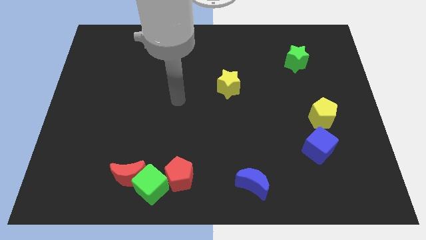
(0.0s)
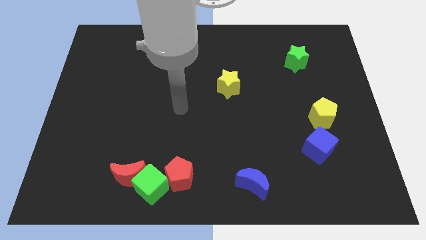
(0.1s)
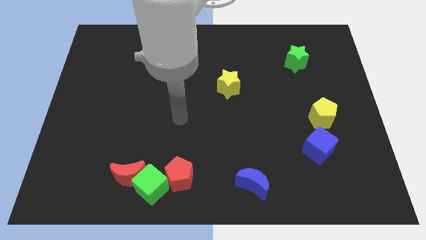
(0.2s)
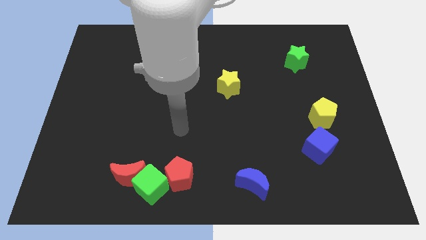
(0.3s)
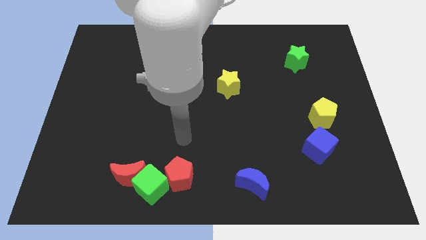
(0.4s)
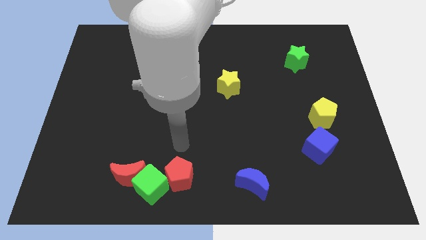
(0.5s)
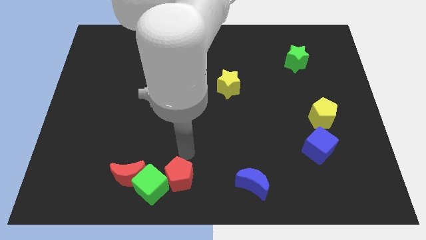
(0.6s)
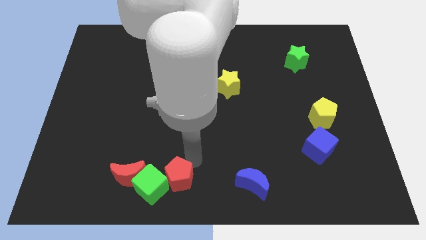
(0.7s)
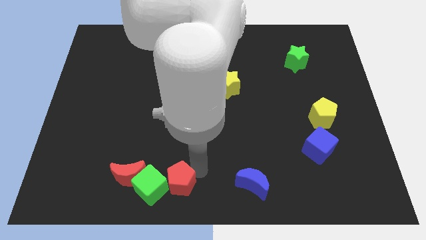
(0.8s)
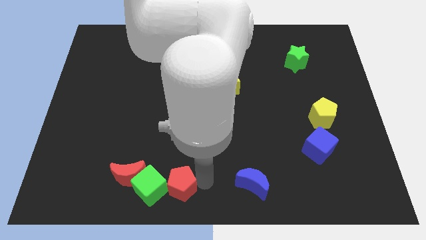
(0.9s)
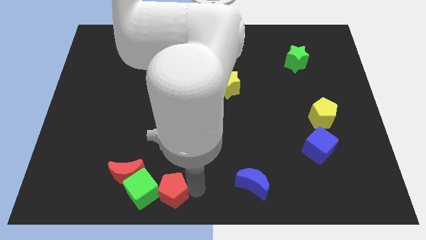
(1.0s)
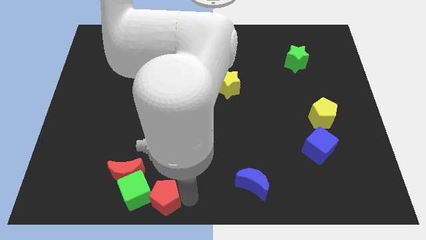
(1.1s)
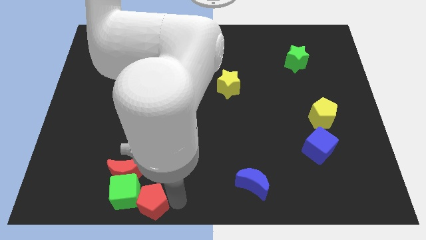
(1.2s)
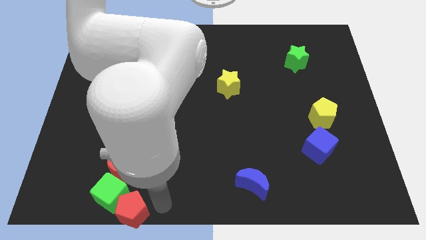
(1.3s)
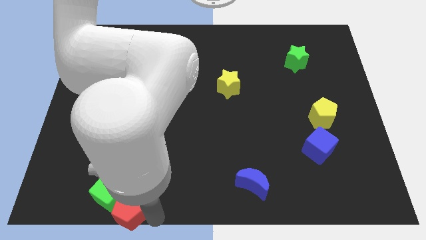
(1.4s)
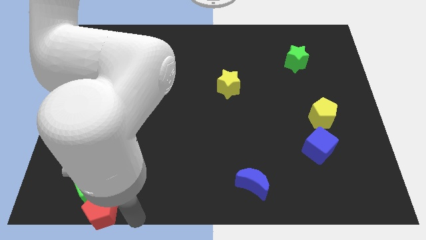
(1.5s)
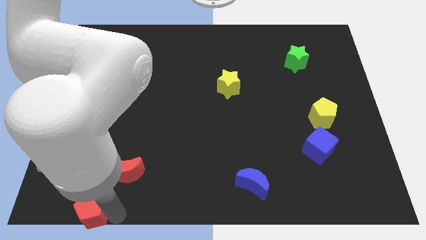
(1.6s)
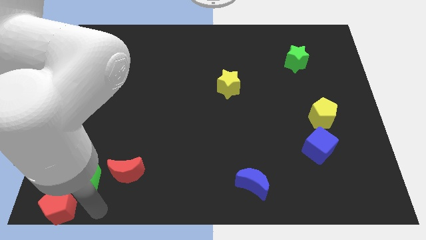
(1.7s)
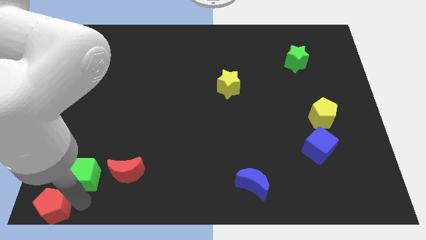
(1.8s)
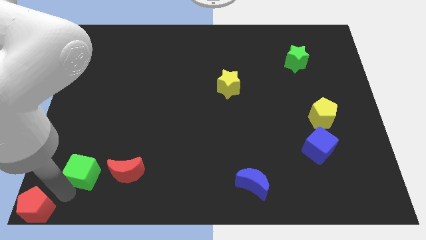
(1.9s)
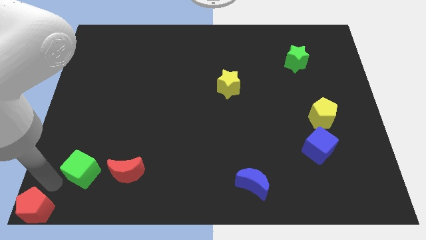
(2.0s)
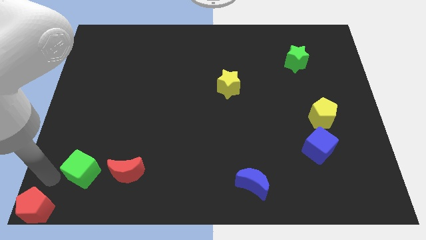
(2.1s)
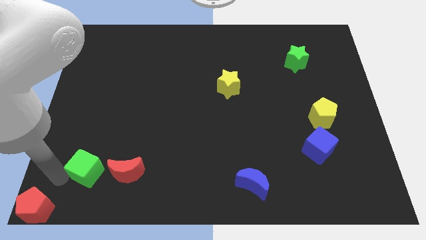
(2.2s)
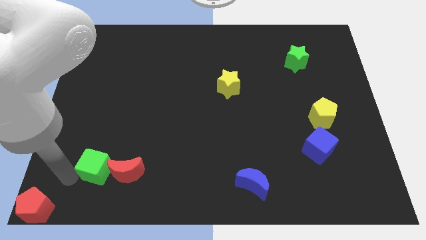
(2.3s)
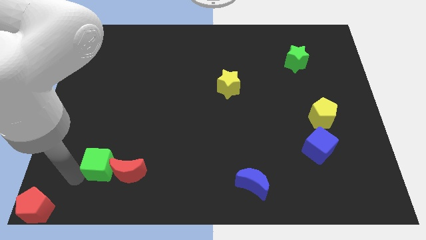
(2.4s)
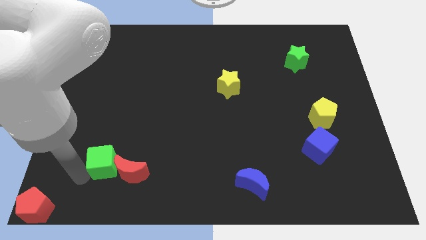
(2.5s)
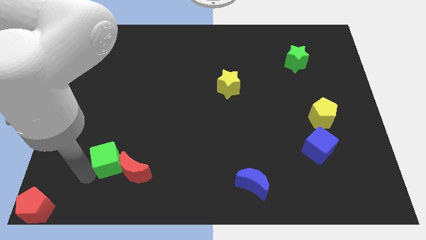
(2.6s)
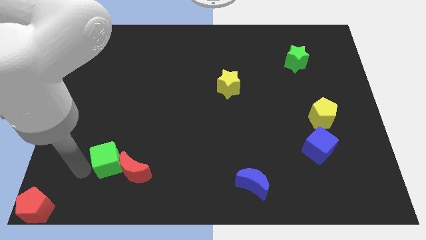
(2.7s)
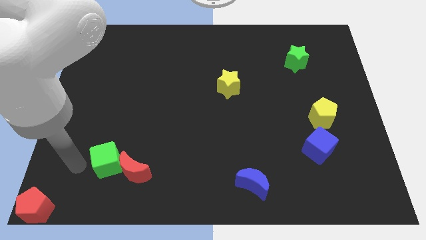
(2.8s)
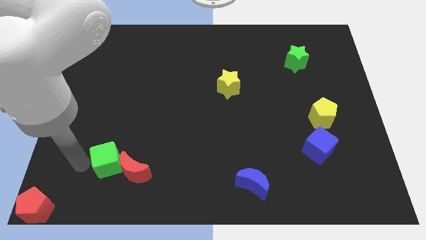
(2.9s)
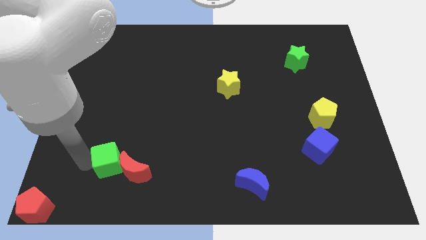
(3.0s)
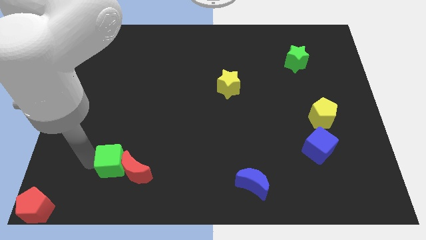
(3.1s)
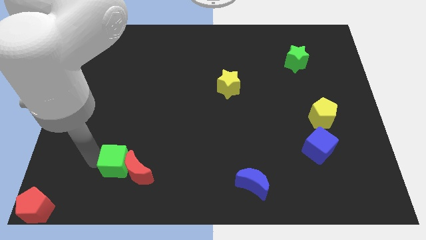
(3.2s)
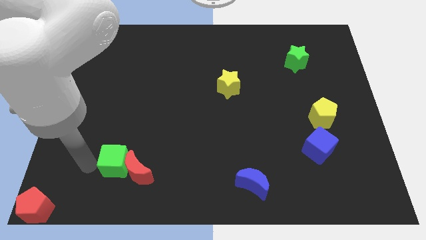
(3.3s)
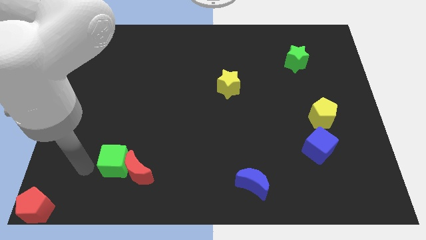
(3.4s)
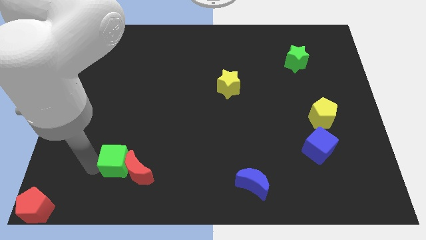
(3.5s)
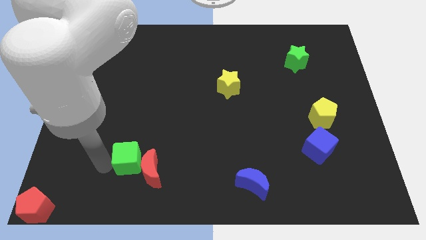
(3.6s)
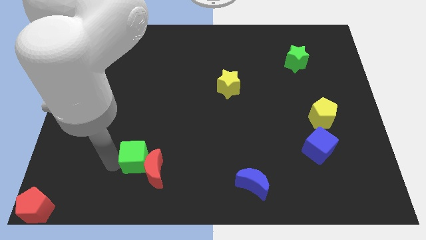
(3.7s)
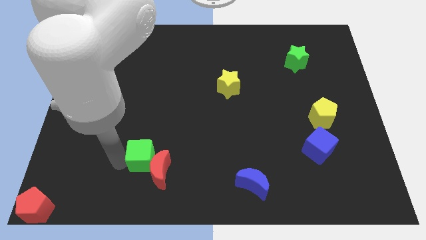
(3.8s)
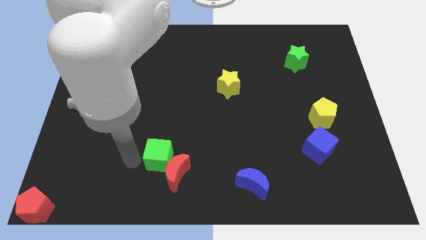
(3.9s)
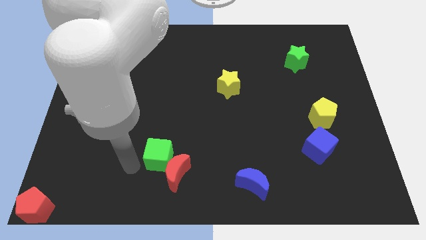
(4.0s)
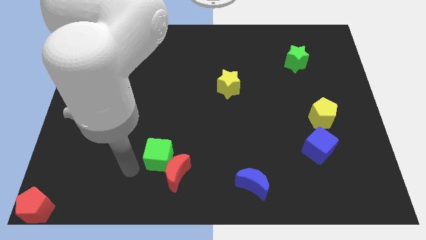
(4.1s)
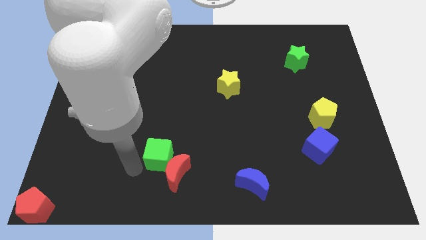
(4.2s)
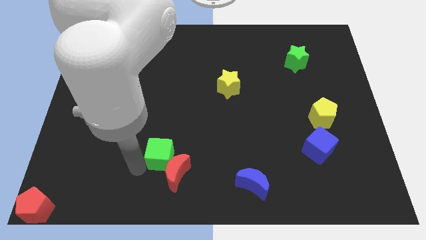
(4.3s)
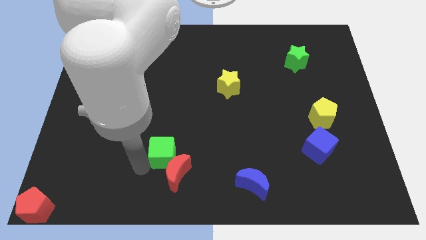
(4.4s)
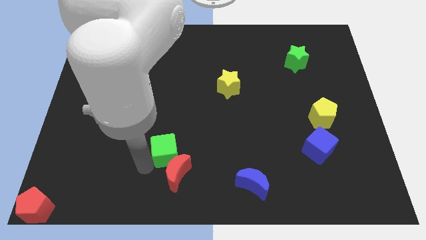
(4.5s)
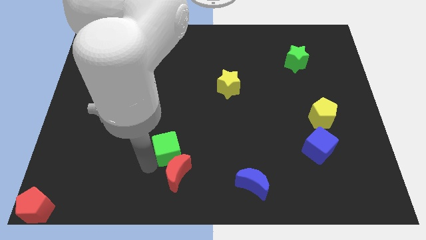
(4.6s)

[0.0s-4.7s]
slightly slide the green cube upwards and right

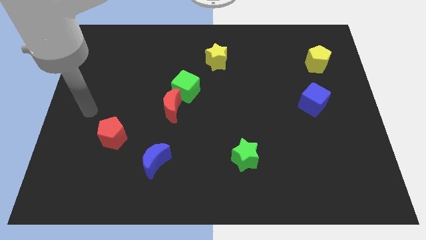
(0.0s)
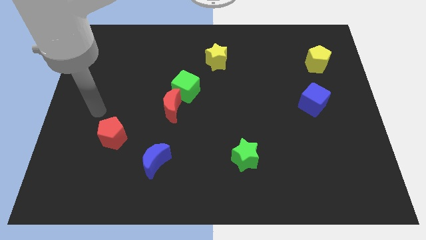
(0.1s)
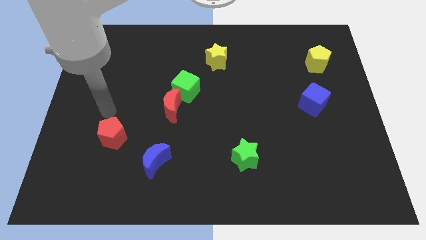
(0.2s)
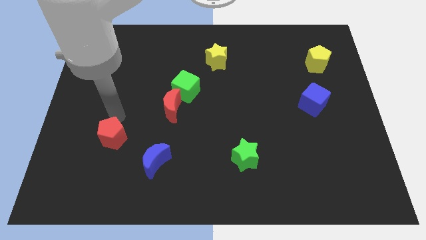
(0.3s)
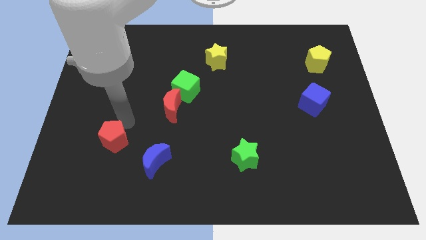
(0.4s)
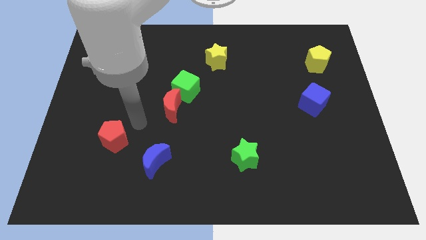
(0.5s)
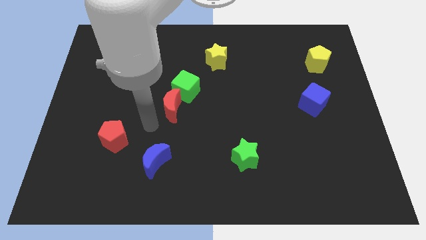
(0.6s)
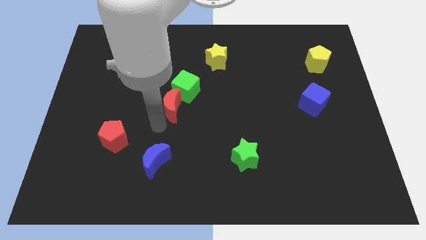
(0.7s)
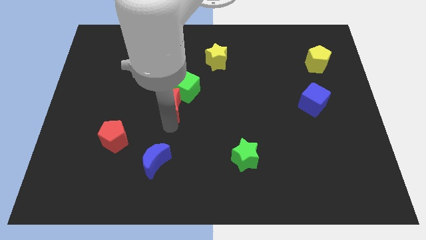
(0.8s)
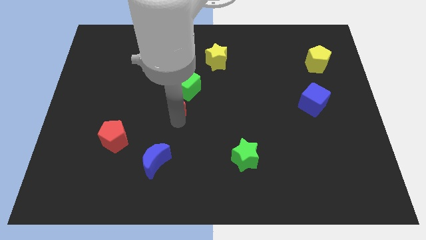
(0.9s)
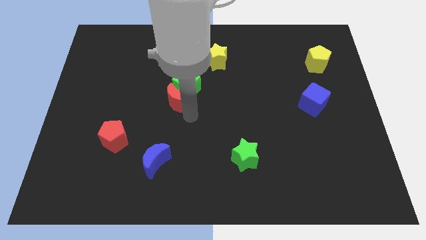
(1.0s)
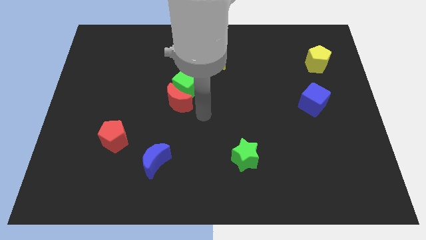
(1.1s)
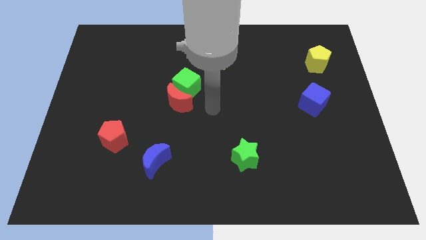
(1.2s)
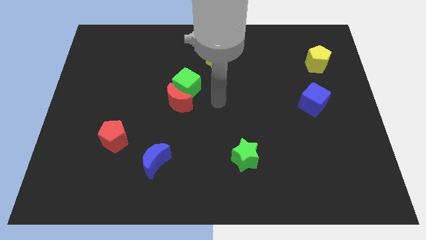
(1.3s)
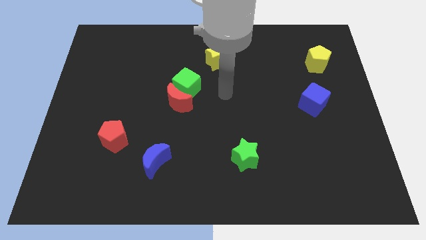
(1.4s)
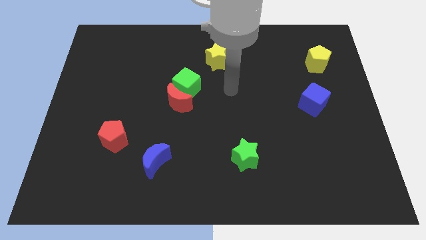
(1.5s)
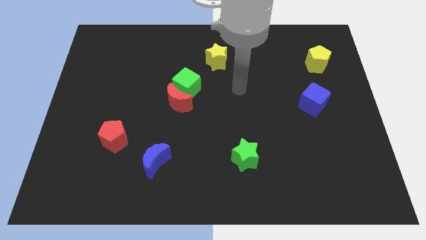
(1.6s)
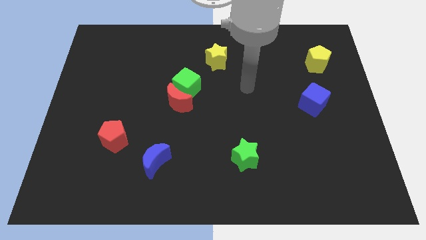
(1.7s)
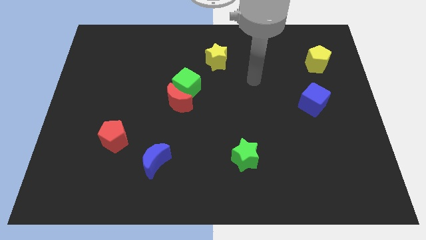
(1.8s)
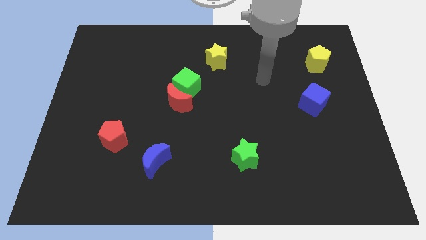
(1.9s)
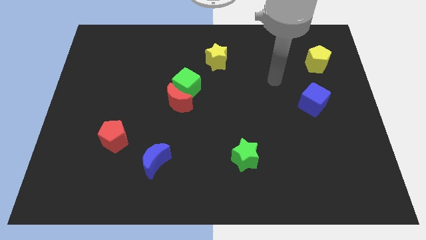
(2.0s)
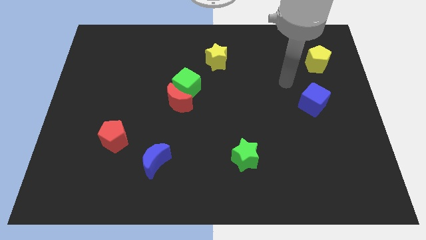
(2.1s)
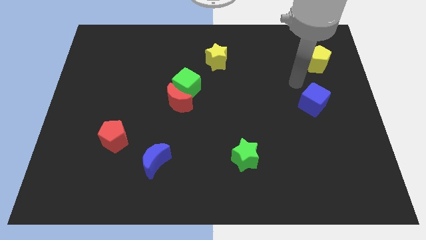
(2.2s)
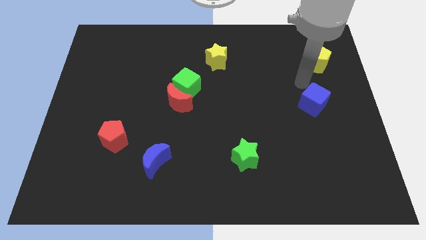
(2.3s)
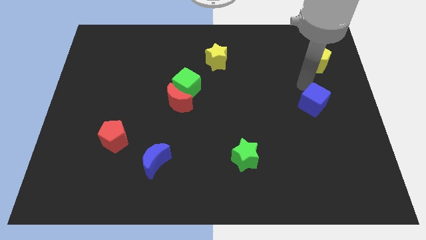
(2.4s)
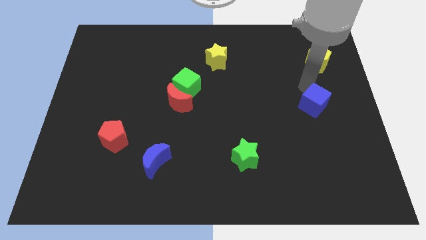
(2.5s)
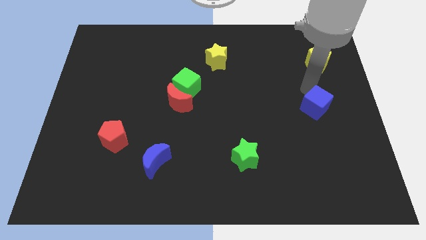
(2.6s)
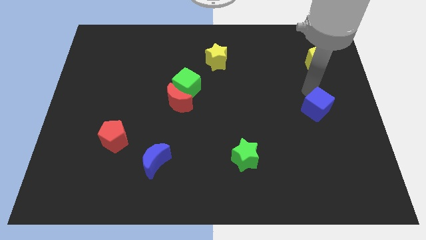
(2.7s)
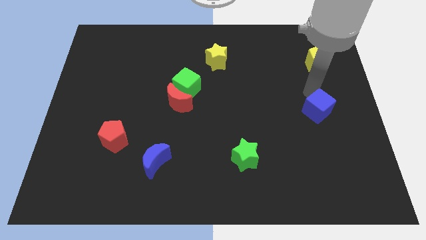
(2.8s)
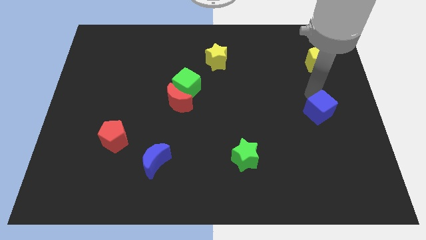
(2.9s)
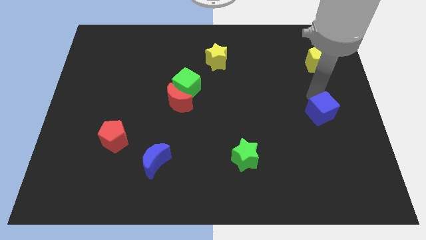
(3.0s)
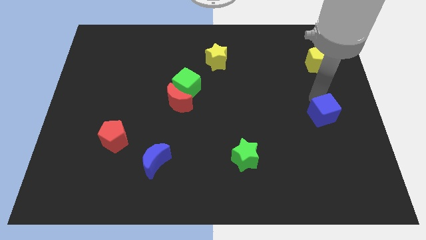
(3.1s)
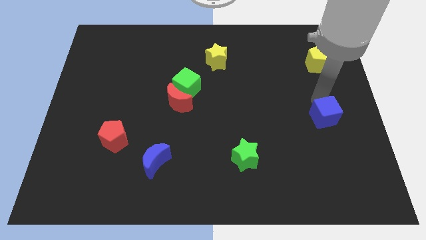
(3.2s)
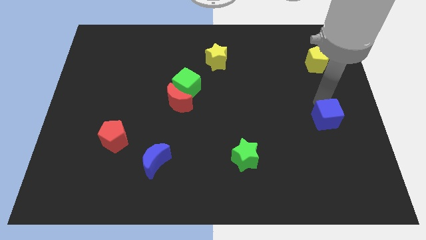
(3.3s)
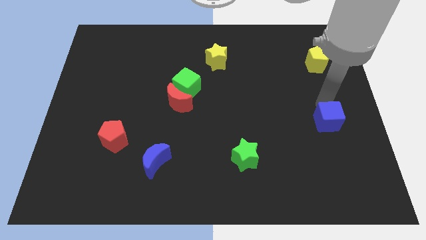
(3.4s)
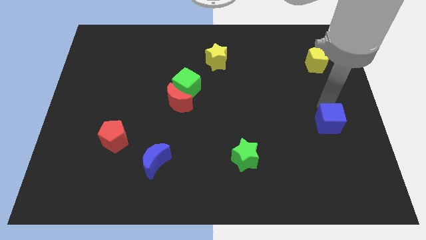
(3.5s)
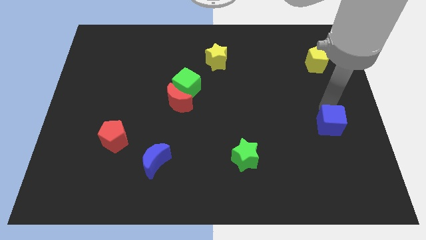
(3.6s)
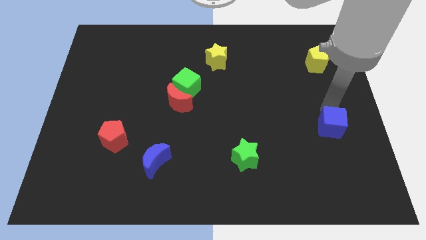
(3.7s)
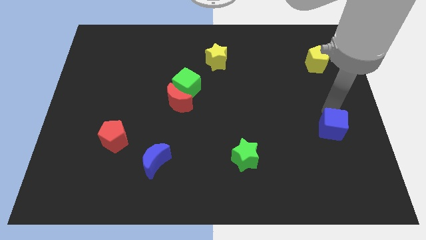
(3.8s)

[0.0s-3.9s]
slightly move the blue cube downwards
